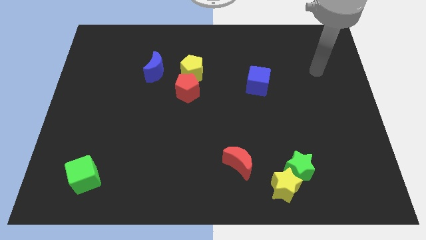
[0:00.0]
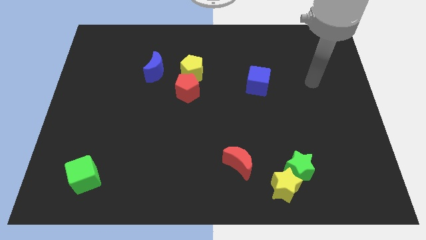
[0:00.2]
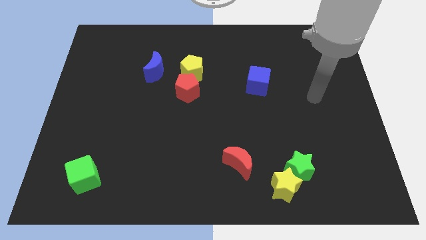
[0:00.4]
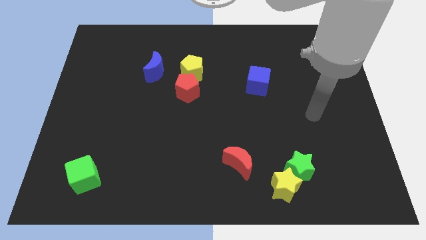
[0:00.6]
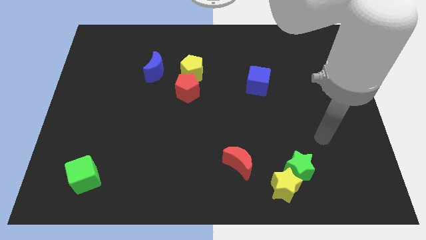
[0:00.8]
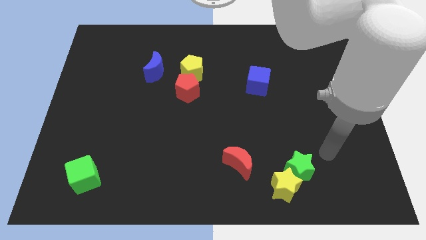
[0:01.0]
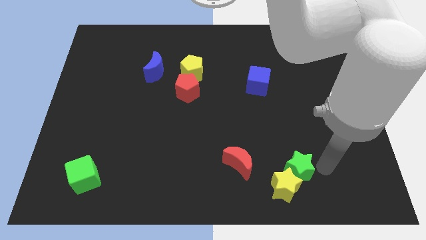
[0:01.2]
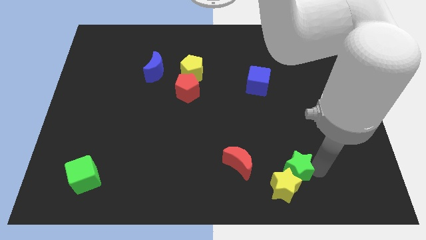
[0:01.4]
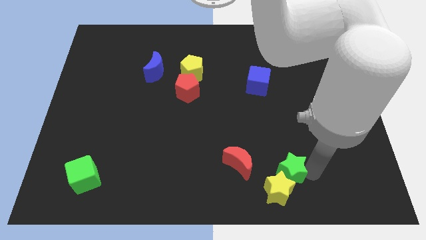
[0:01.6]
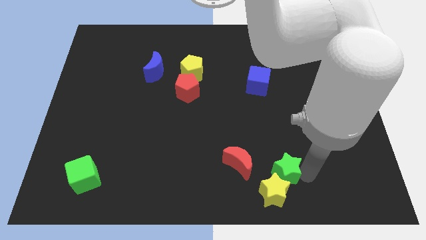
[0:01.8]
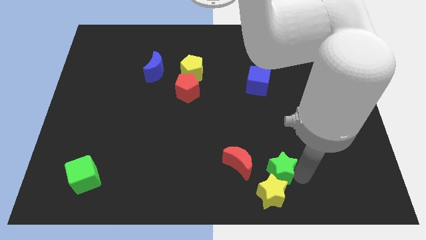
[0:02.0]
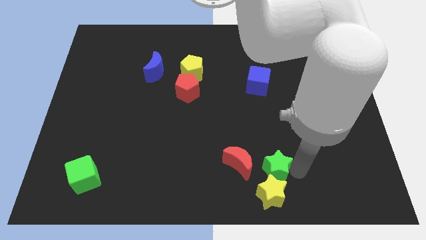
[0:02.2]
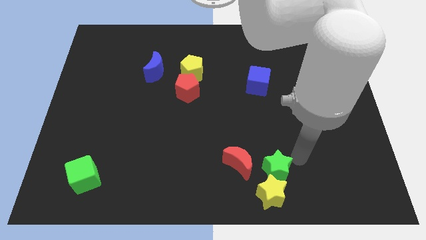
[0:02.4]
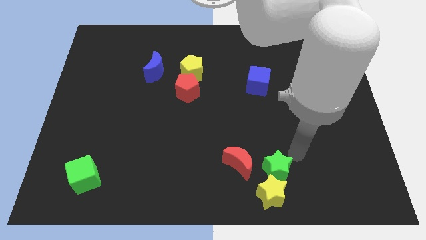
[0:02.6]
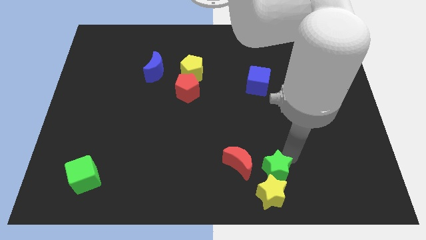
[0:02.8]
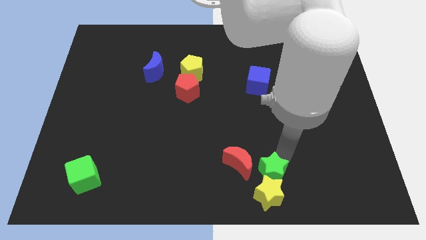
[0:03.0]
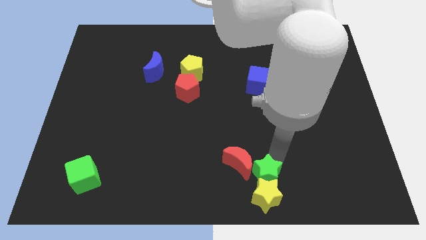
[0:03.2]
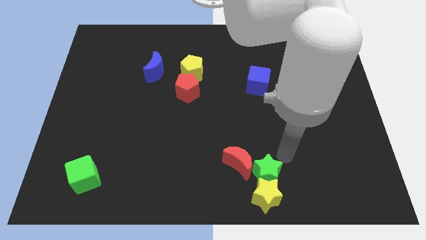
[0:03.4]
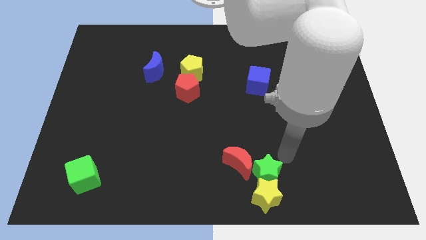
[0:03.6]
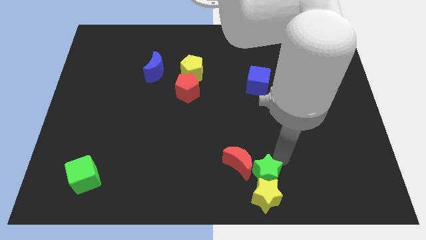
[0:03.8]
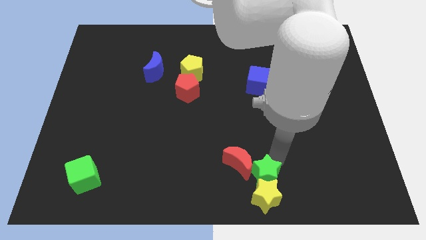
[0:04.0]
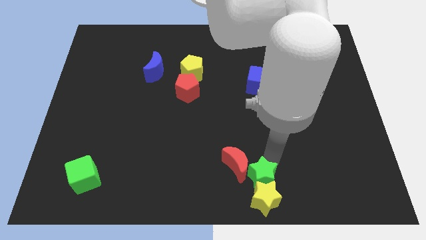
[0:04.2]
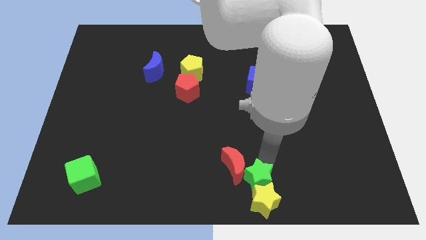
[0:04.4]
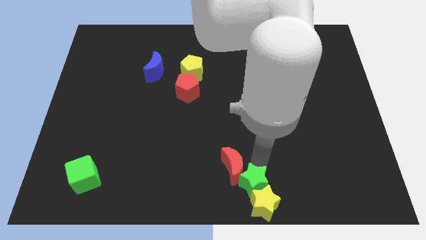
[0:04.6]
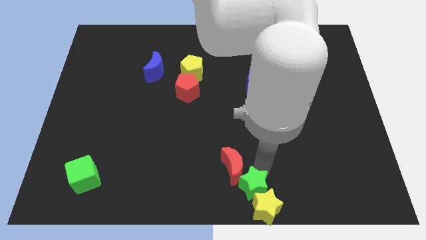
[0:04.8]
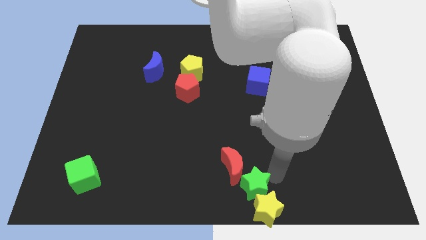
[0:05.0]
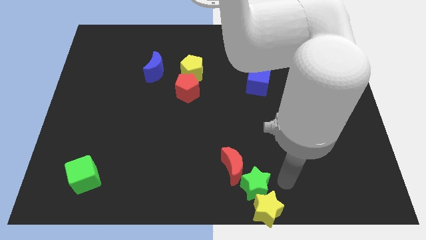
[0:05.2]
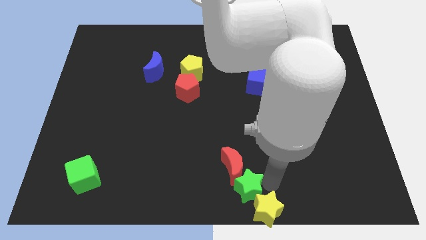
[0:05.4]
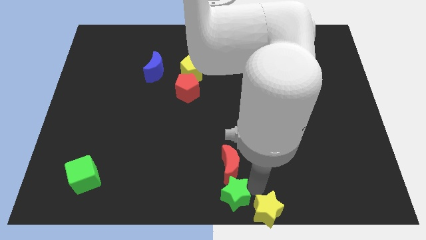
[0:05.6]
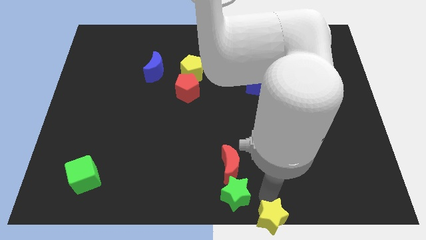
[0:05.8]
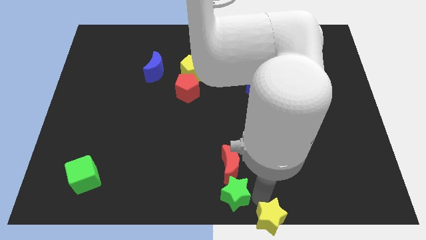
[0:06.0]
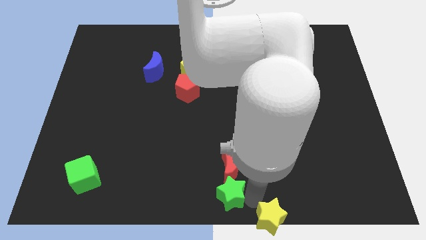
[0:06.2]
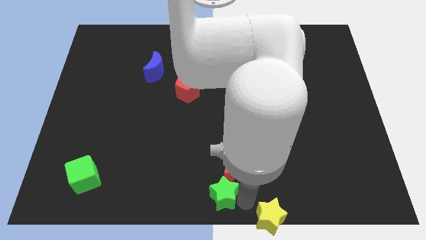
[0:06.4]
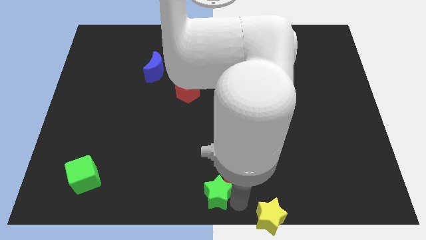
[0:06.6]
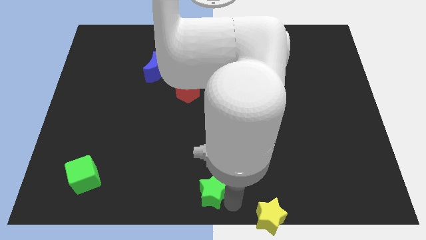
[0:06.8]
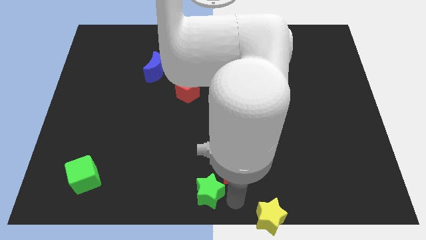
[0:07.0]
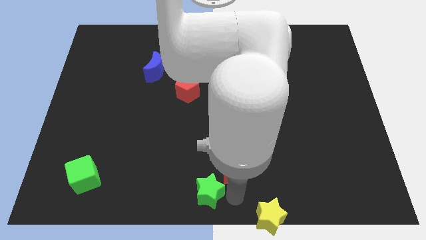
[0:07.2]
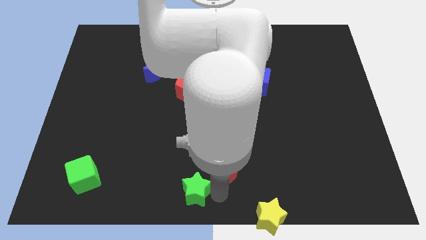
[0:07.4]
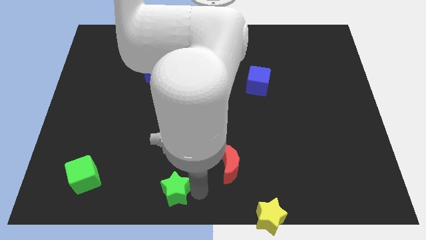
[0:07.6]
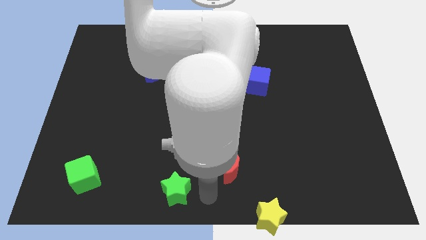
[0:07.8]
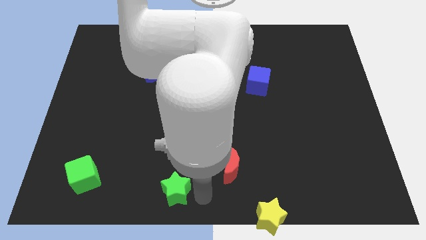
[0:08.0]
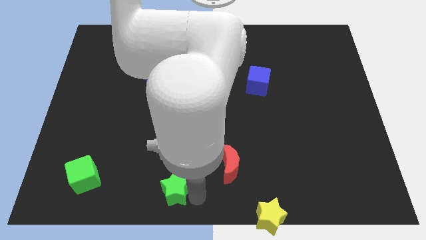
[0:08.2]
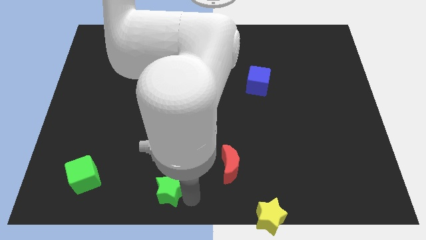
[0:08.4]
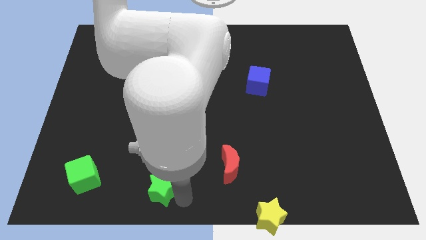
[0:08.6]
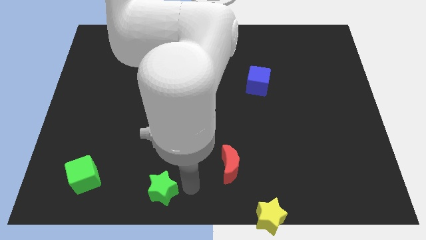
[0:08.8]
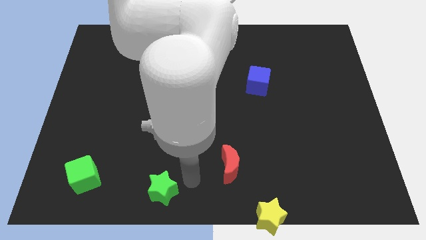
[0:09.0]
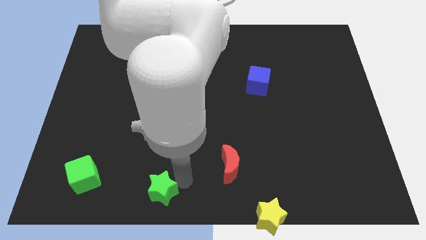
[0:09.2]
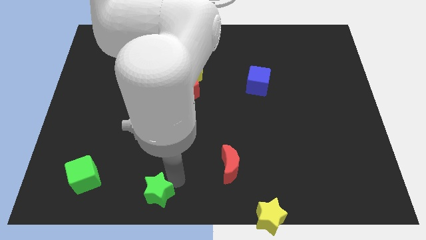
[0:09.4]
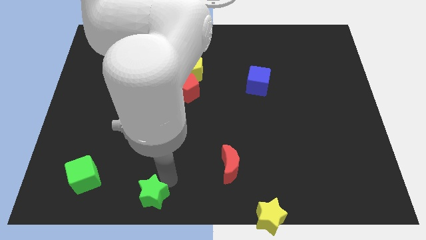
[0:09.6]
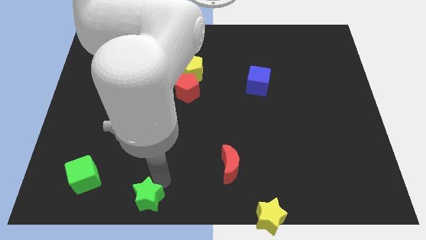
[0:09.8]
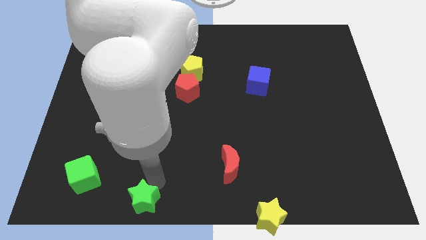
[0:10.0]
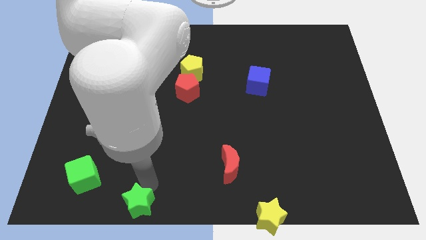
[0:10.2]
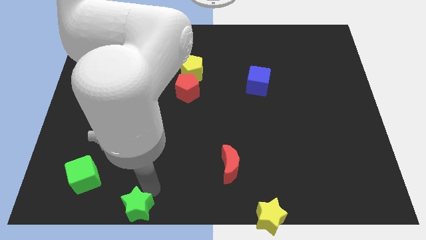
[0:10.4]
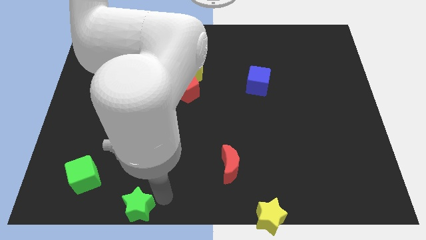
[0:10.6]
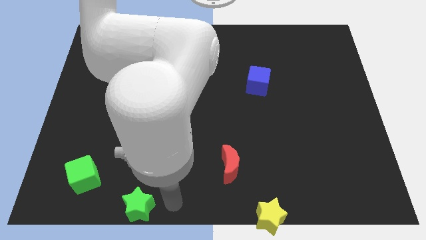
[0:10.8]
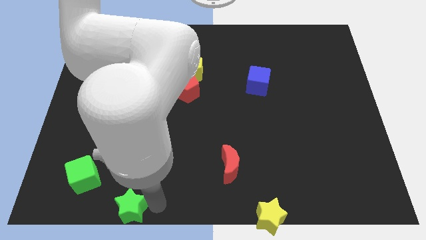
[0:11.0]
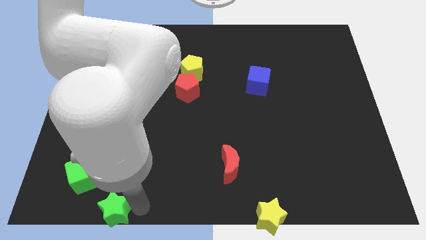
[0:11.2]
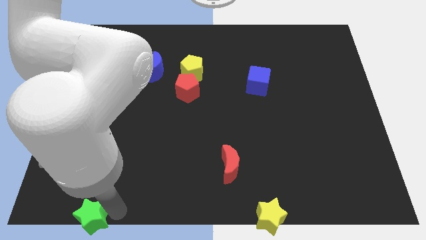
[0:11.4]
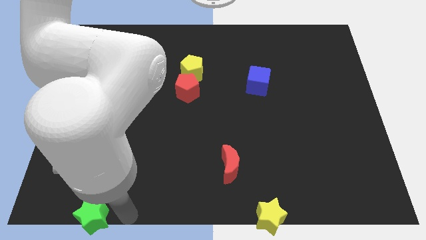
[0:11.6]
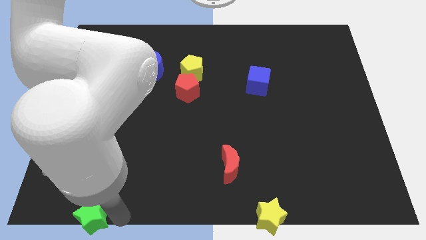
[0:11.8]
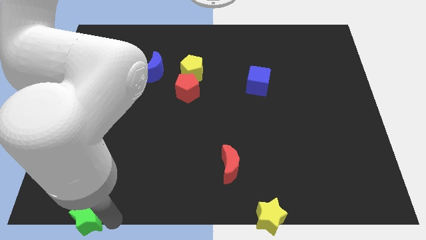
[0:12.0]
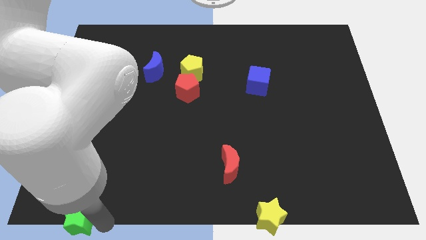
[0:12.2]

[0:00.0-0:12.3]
put the green star to the lower left corner

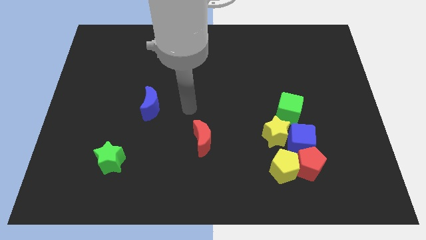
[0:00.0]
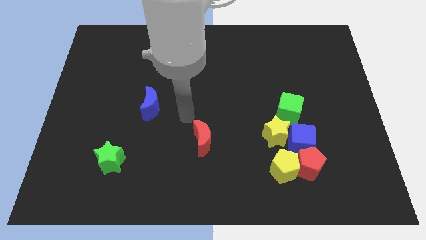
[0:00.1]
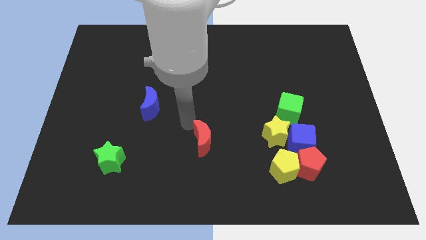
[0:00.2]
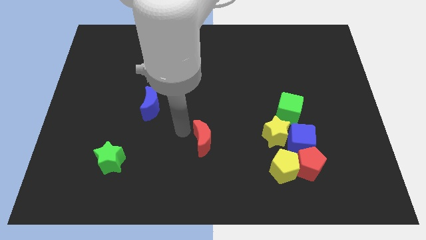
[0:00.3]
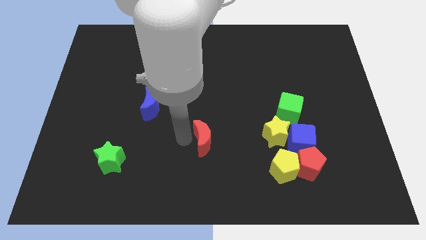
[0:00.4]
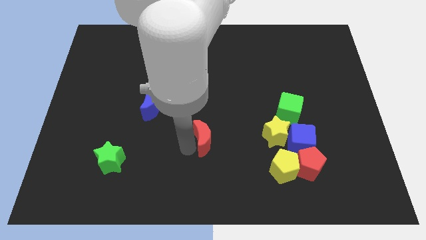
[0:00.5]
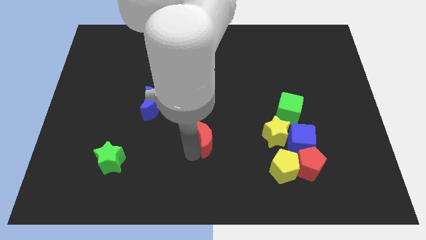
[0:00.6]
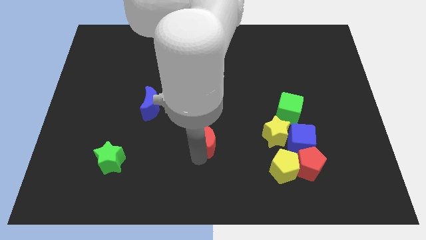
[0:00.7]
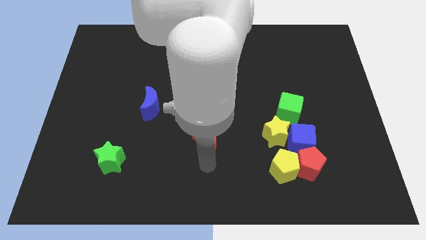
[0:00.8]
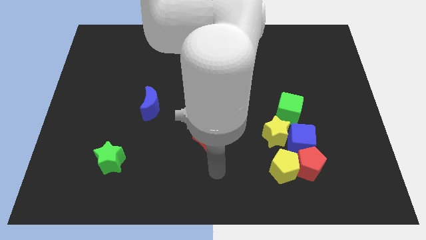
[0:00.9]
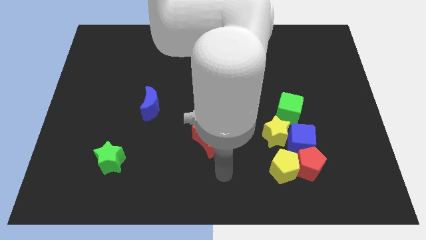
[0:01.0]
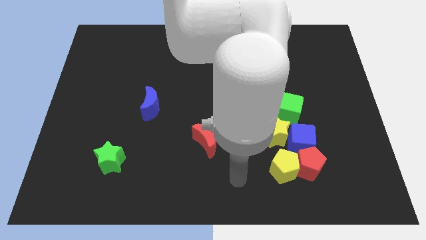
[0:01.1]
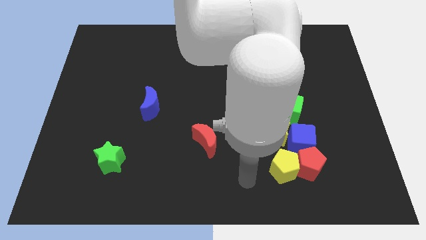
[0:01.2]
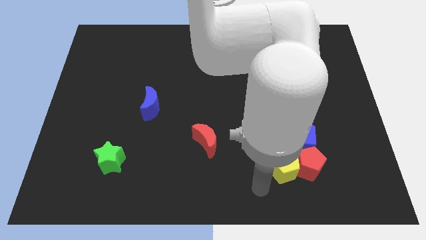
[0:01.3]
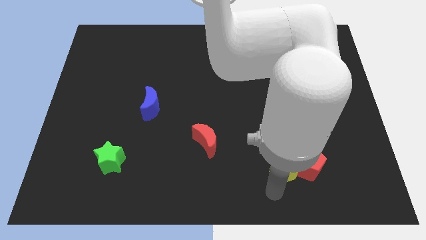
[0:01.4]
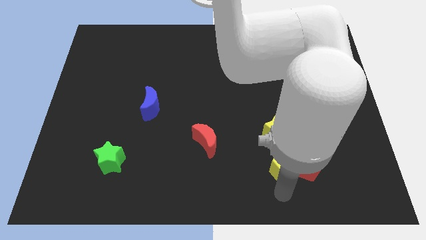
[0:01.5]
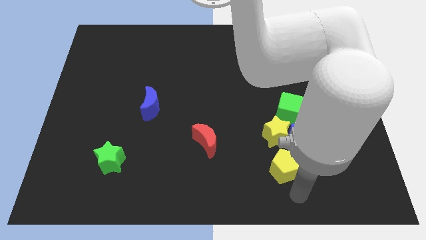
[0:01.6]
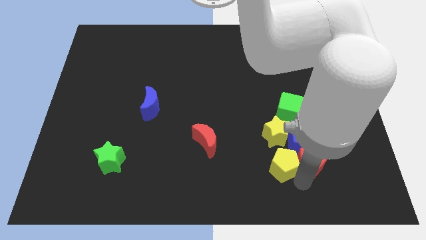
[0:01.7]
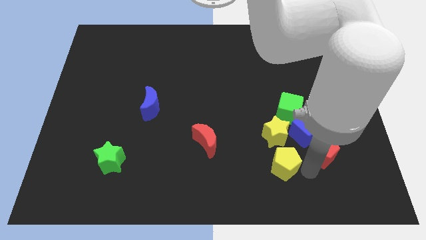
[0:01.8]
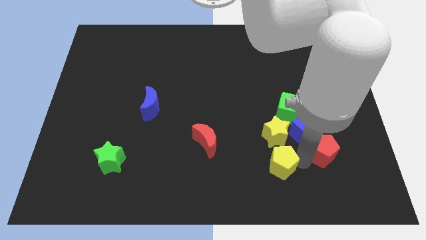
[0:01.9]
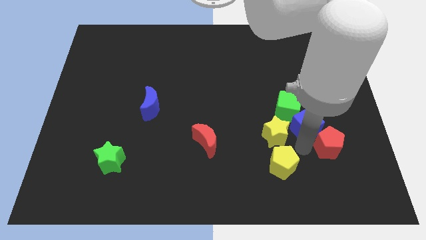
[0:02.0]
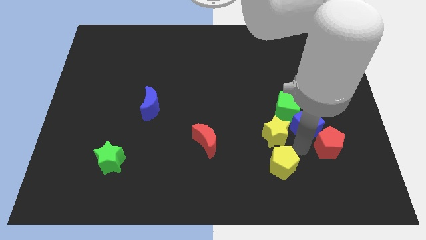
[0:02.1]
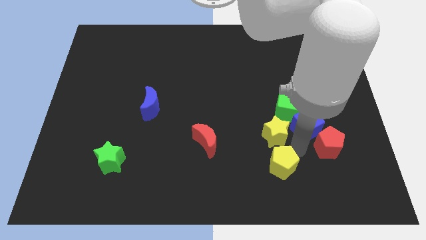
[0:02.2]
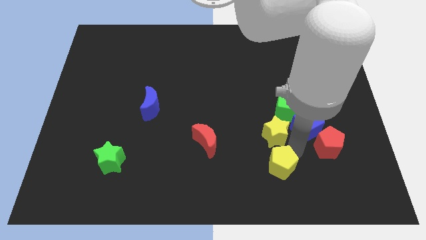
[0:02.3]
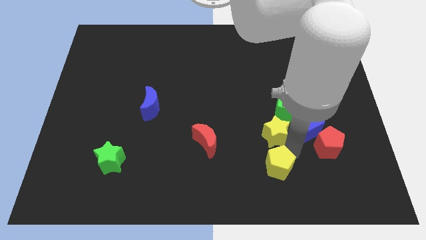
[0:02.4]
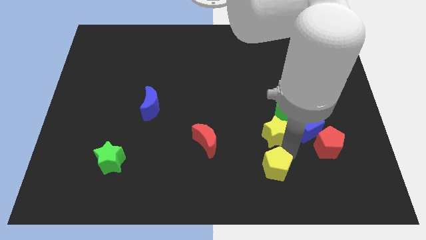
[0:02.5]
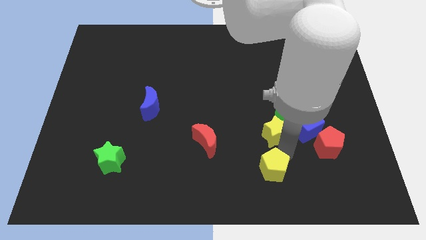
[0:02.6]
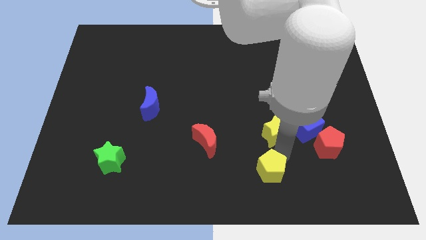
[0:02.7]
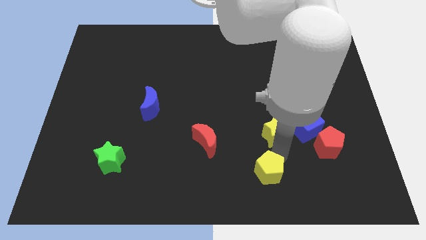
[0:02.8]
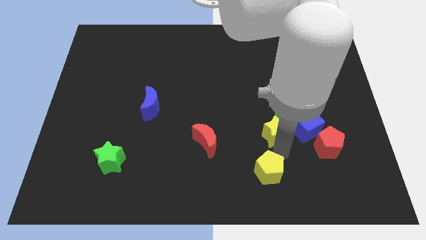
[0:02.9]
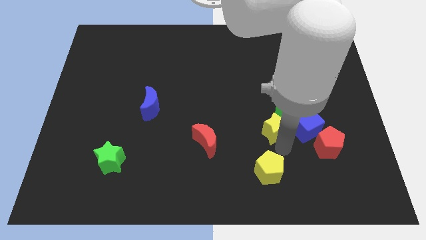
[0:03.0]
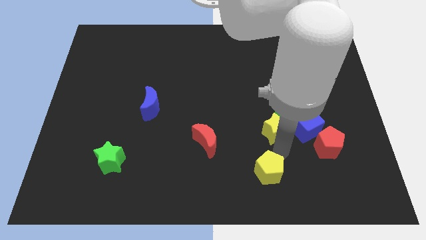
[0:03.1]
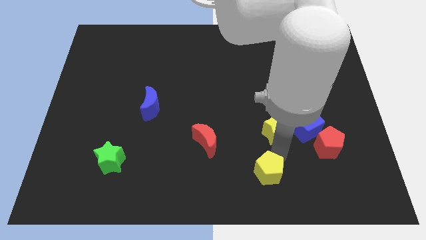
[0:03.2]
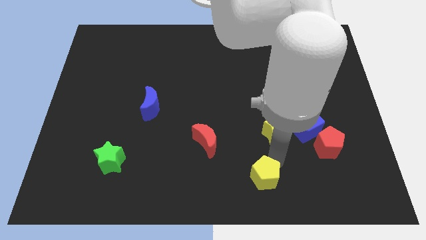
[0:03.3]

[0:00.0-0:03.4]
put the yellow pentagon to the bottom side
